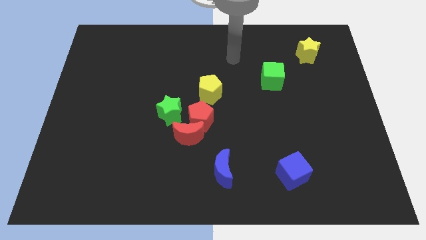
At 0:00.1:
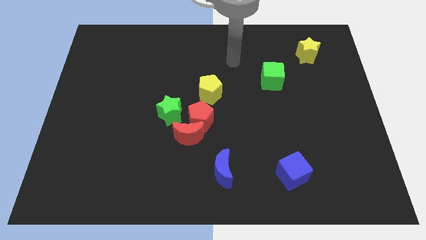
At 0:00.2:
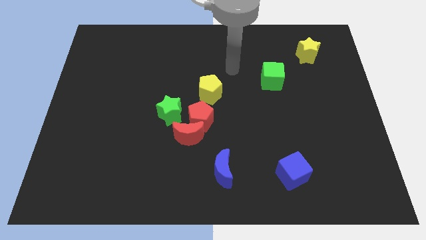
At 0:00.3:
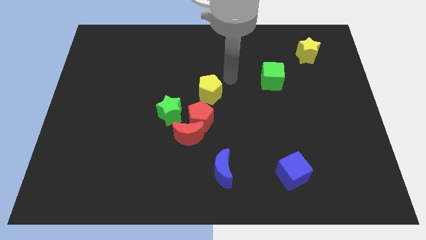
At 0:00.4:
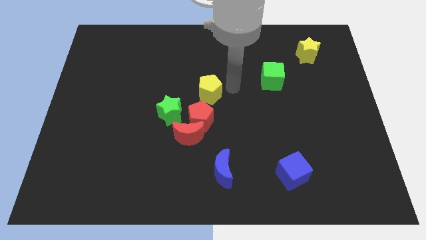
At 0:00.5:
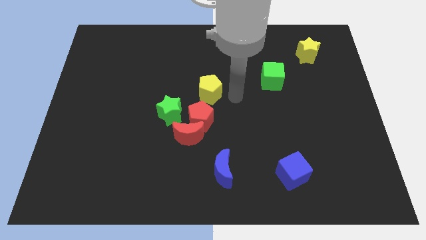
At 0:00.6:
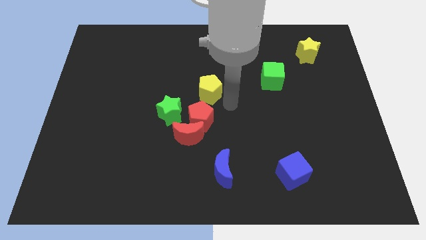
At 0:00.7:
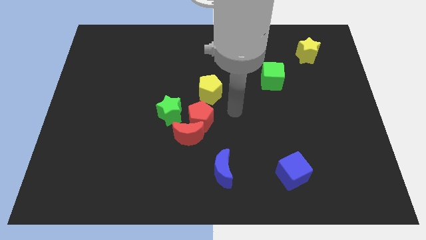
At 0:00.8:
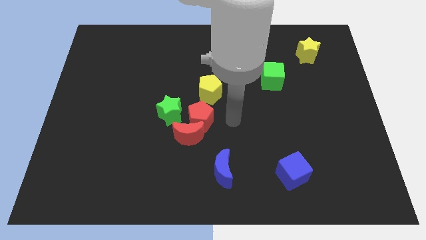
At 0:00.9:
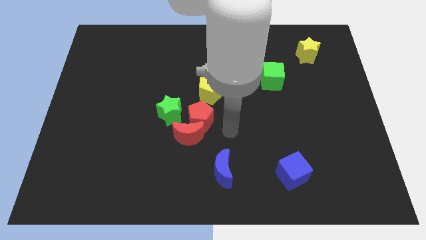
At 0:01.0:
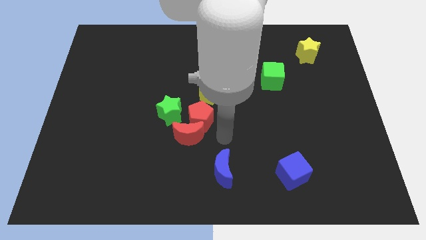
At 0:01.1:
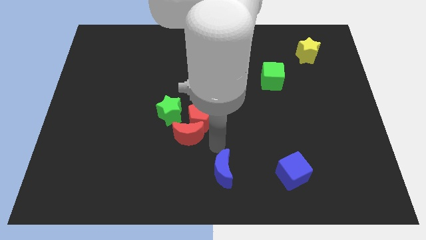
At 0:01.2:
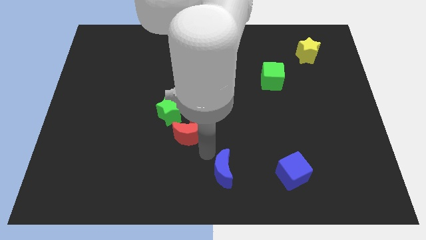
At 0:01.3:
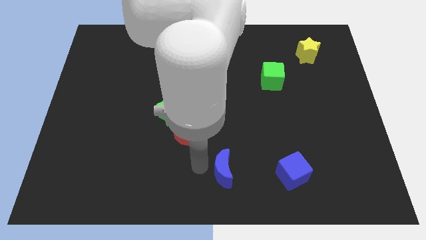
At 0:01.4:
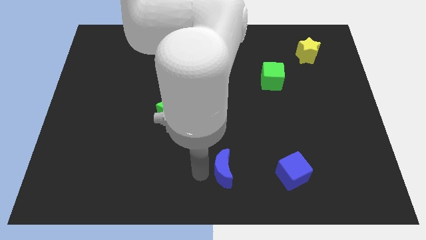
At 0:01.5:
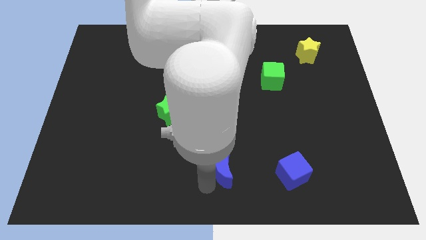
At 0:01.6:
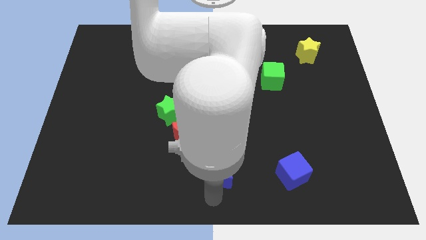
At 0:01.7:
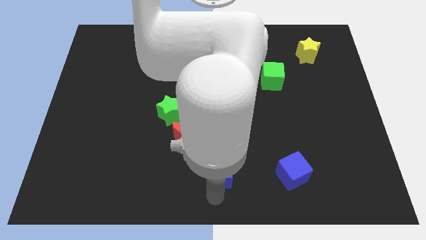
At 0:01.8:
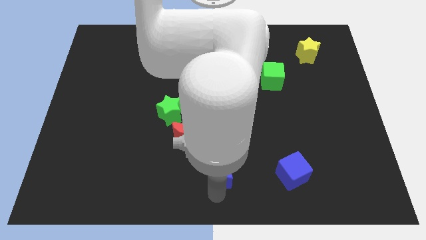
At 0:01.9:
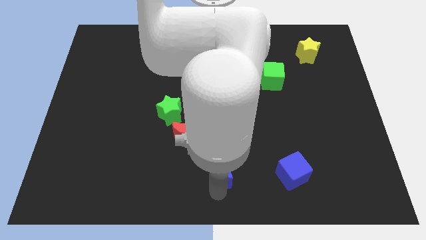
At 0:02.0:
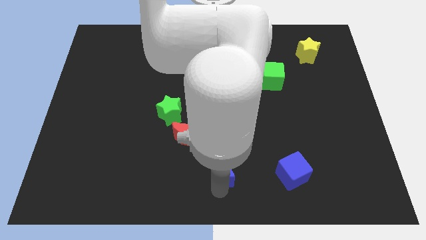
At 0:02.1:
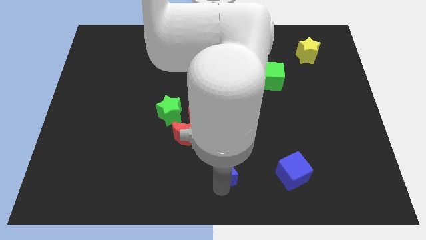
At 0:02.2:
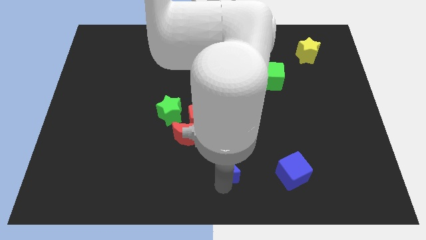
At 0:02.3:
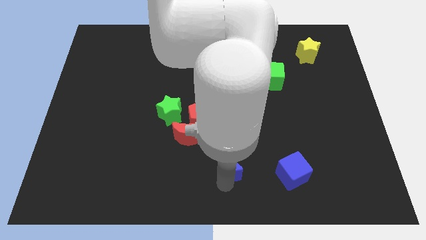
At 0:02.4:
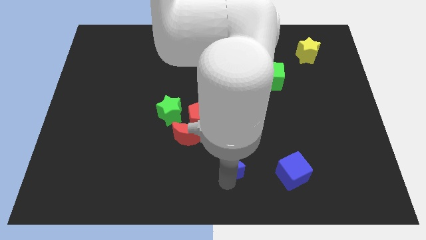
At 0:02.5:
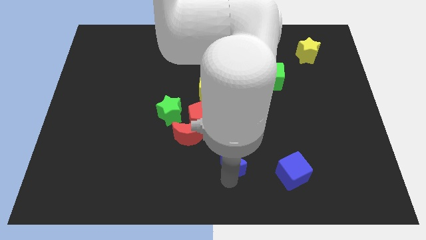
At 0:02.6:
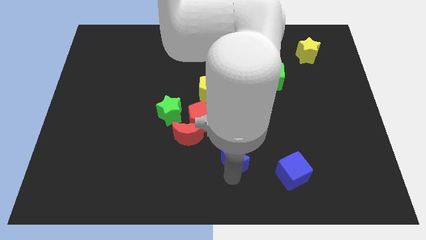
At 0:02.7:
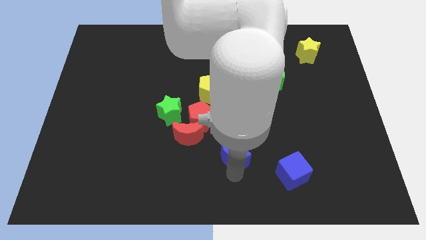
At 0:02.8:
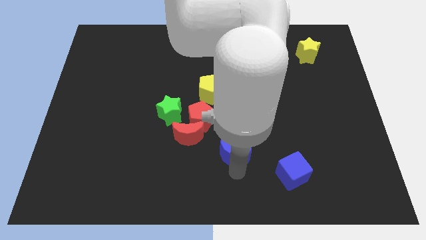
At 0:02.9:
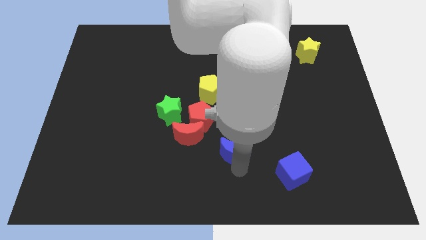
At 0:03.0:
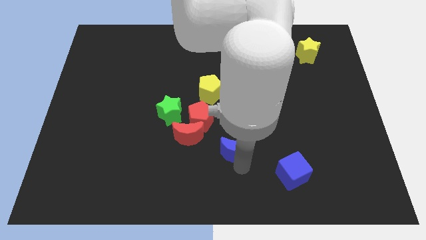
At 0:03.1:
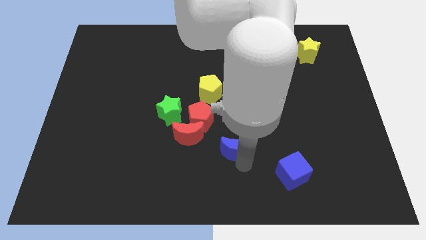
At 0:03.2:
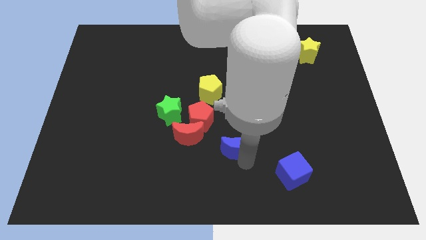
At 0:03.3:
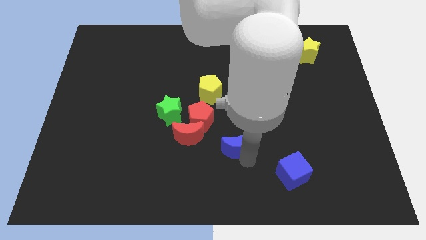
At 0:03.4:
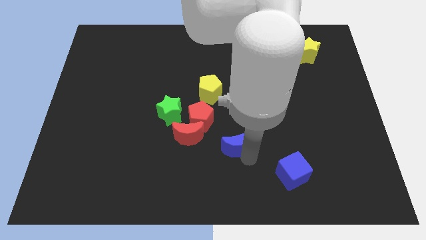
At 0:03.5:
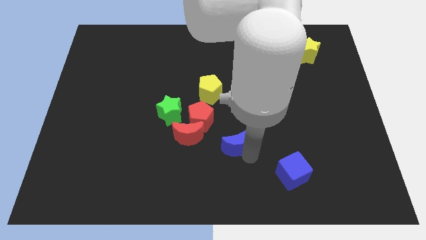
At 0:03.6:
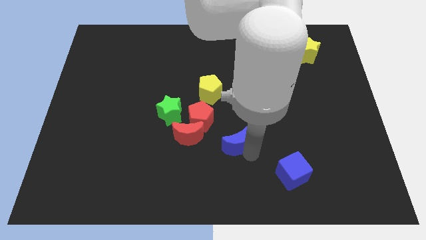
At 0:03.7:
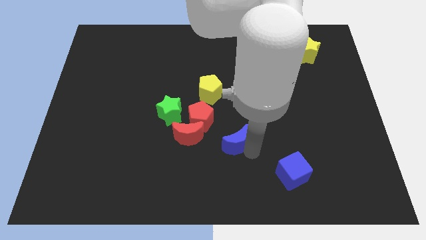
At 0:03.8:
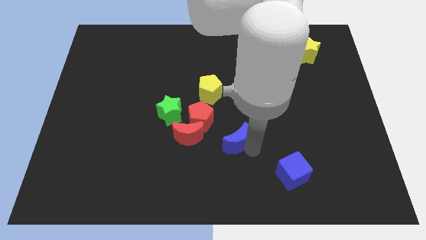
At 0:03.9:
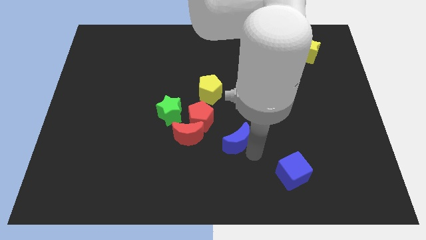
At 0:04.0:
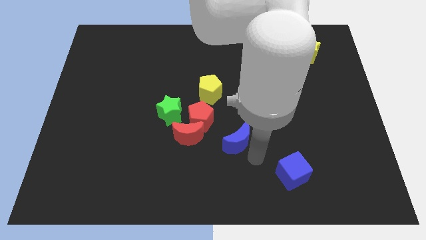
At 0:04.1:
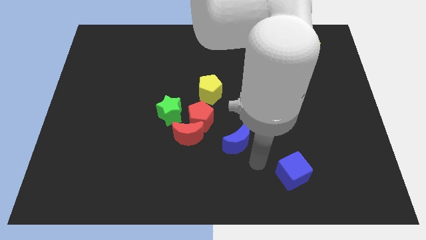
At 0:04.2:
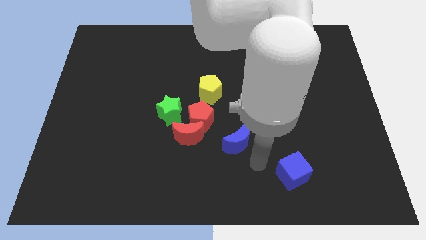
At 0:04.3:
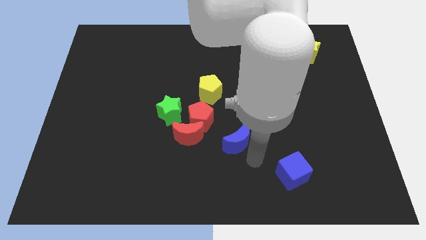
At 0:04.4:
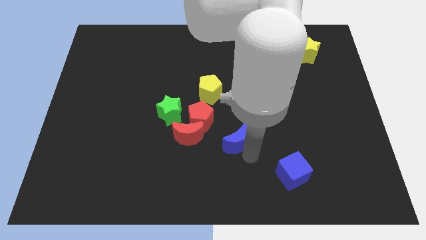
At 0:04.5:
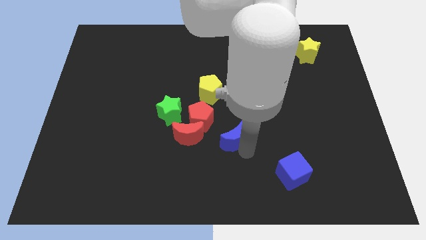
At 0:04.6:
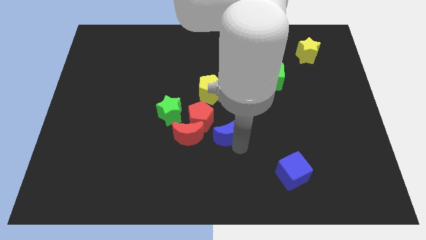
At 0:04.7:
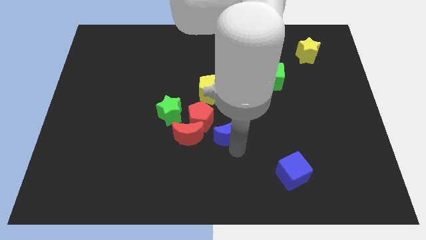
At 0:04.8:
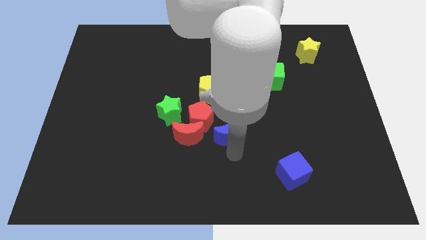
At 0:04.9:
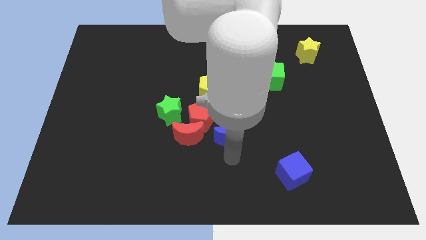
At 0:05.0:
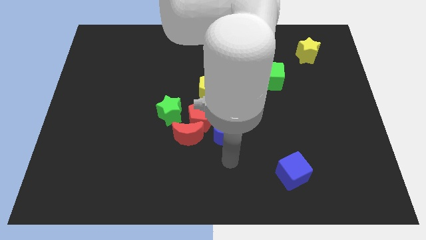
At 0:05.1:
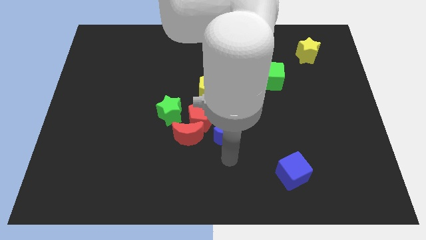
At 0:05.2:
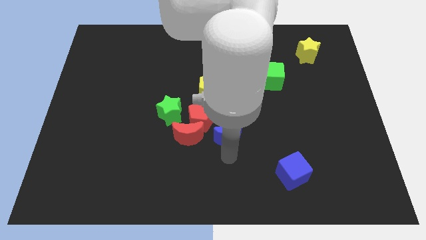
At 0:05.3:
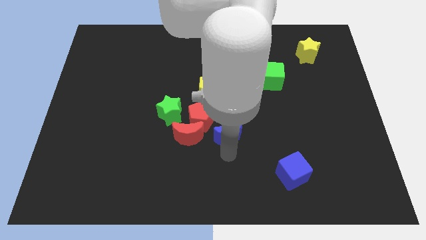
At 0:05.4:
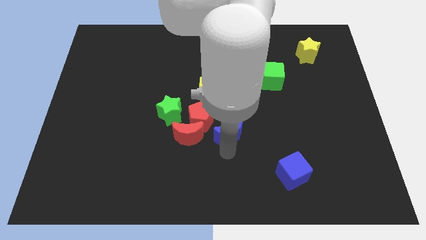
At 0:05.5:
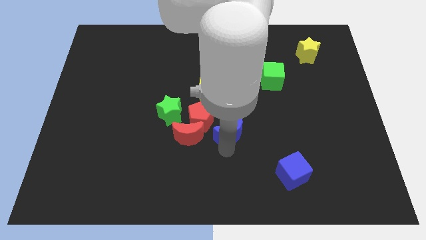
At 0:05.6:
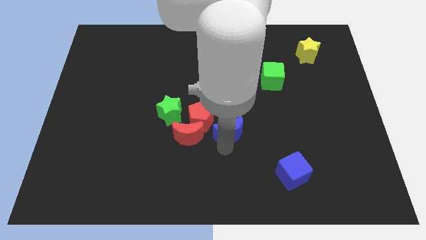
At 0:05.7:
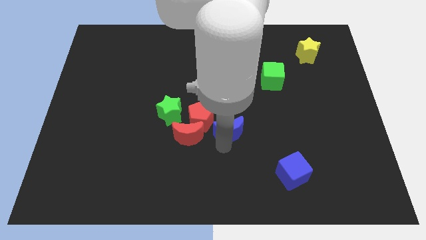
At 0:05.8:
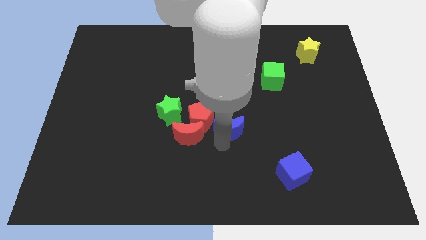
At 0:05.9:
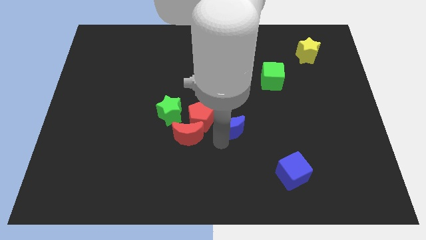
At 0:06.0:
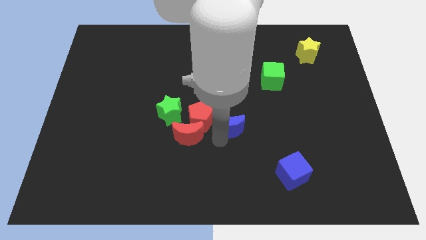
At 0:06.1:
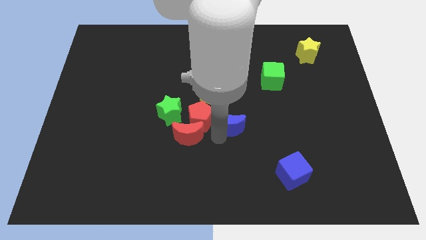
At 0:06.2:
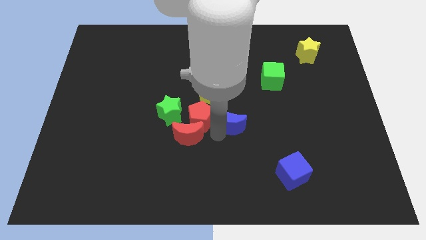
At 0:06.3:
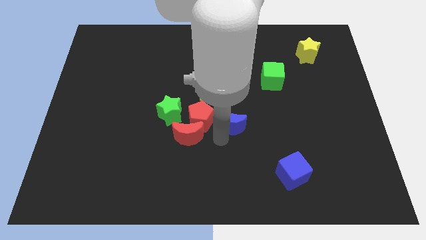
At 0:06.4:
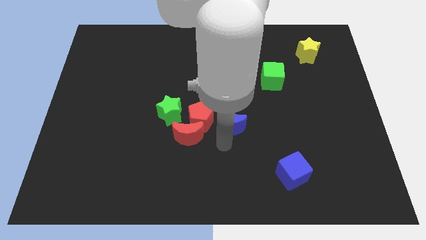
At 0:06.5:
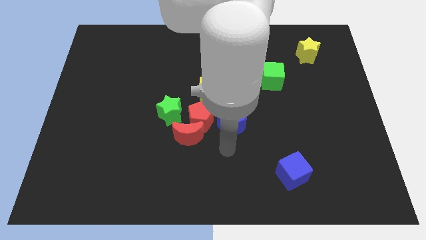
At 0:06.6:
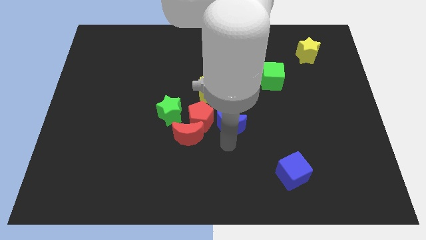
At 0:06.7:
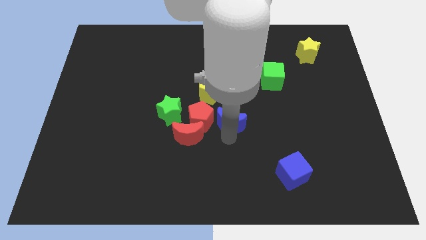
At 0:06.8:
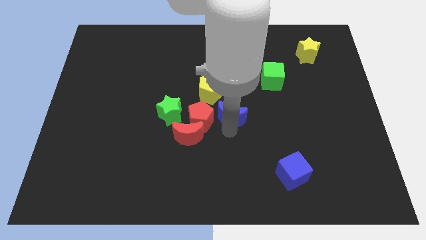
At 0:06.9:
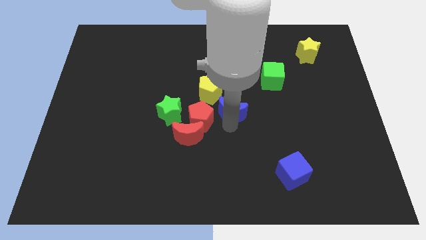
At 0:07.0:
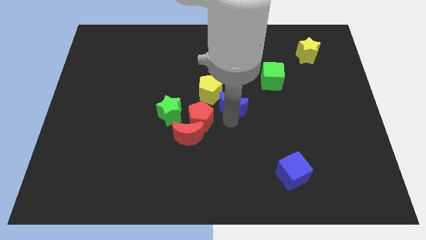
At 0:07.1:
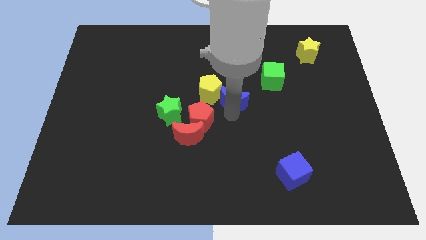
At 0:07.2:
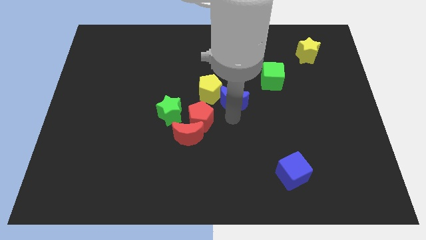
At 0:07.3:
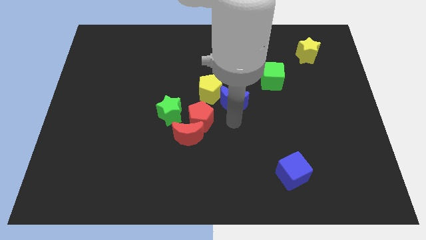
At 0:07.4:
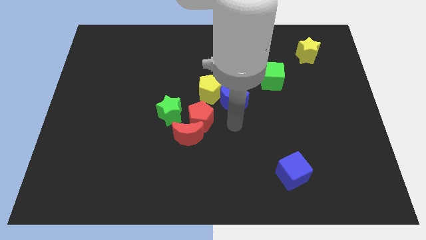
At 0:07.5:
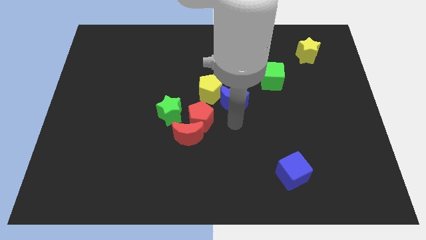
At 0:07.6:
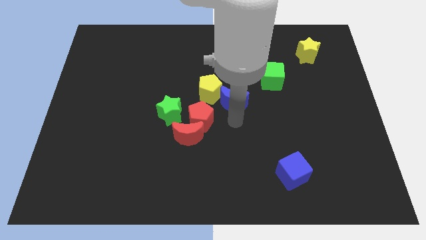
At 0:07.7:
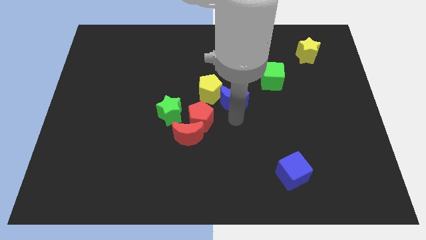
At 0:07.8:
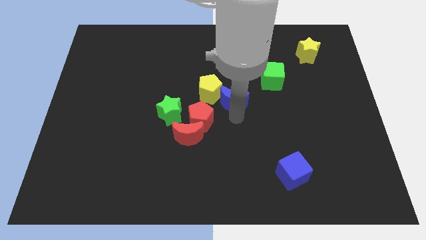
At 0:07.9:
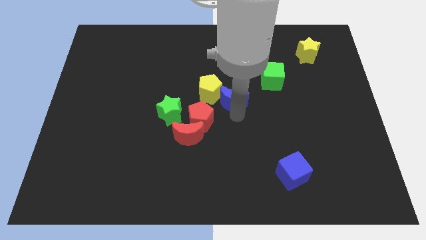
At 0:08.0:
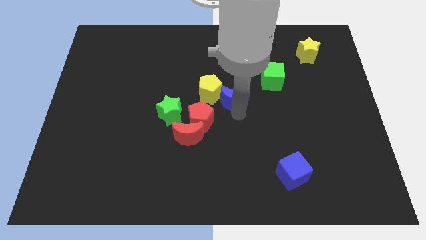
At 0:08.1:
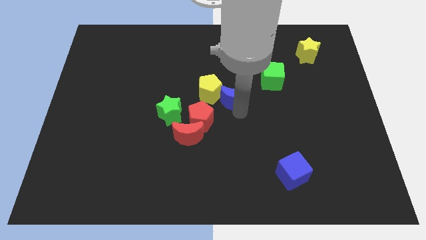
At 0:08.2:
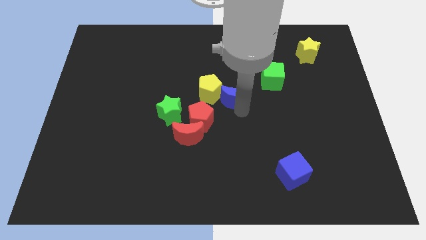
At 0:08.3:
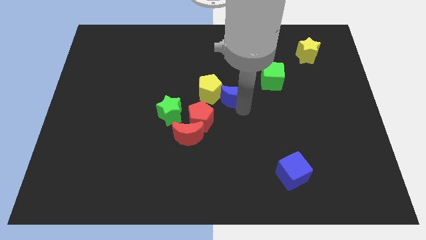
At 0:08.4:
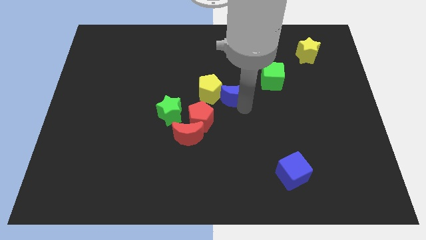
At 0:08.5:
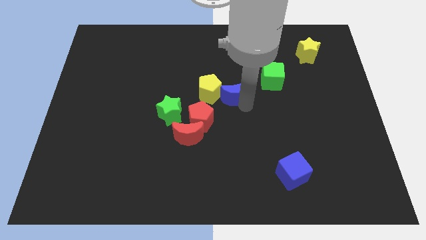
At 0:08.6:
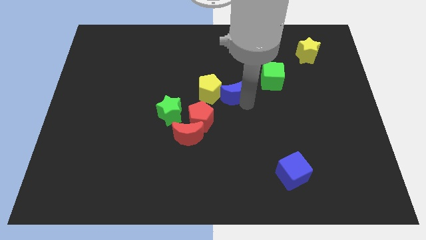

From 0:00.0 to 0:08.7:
slide the blue moon upwards
